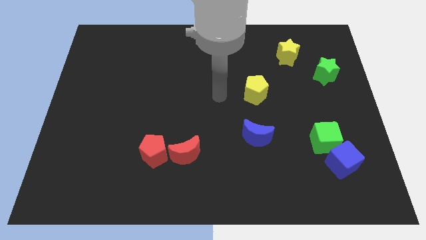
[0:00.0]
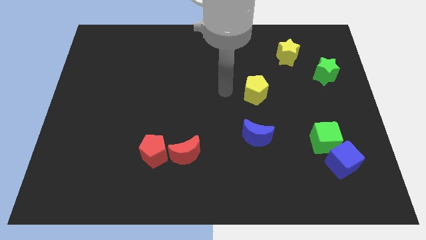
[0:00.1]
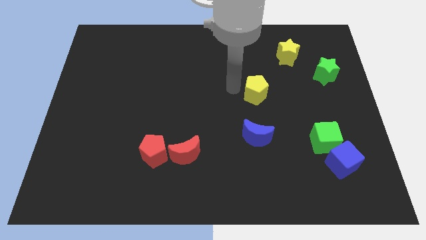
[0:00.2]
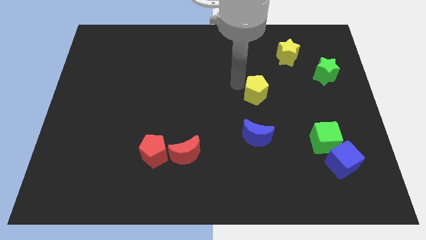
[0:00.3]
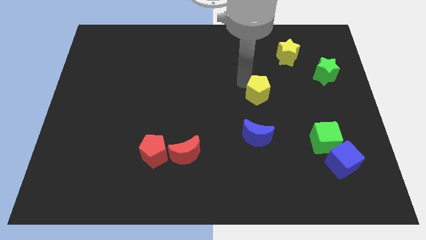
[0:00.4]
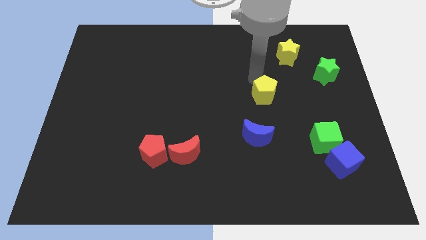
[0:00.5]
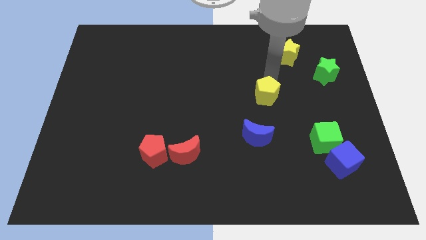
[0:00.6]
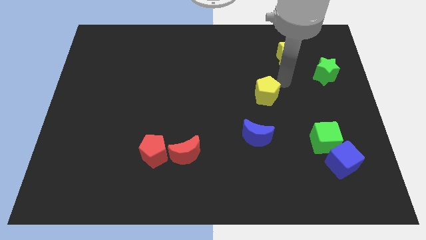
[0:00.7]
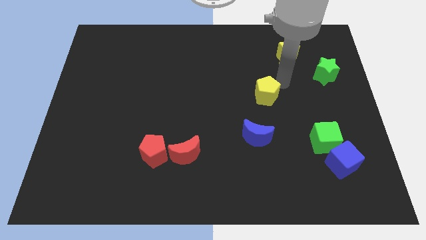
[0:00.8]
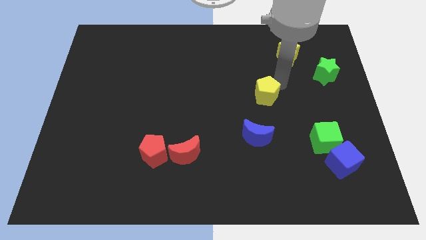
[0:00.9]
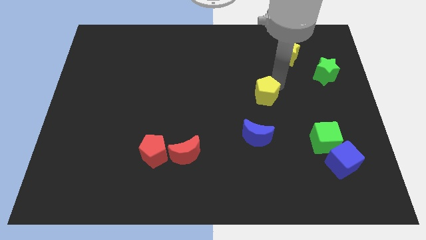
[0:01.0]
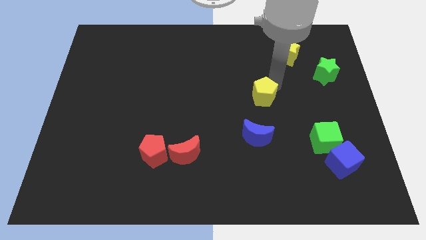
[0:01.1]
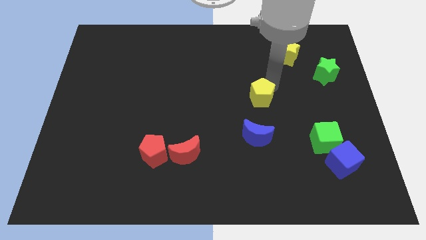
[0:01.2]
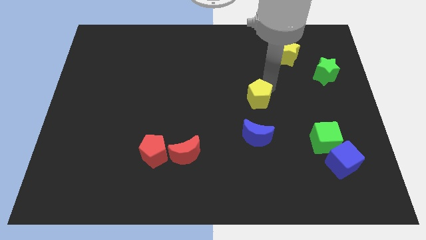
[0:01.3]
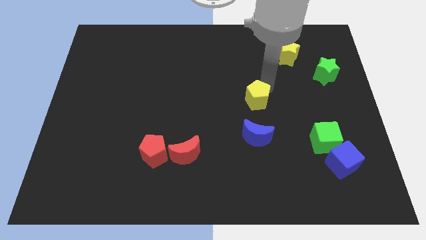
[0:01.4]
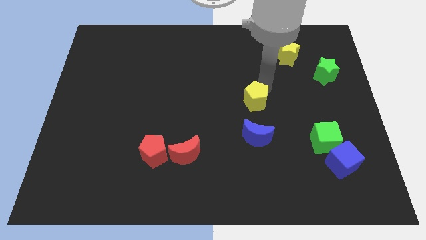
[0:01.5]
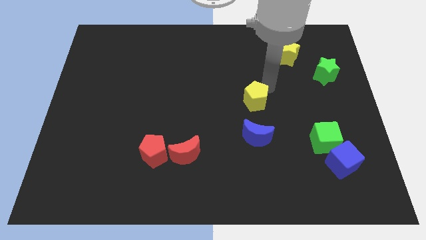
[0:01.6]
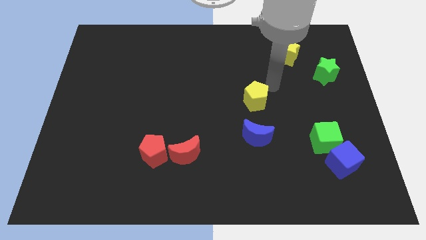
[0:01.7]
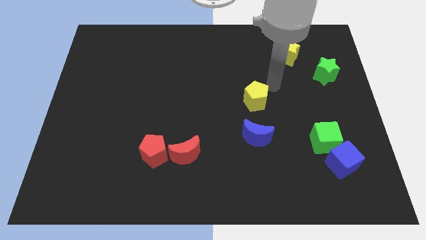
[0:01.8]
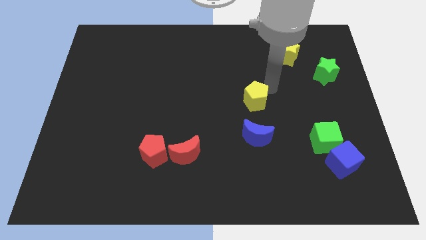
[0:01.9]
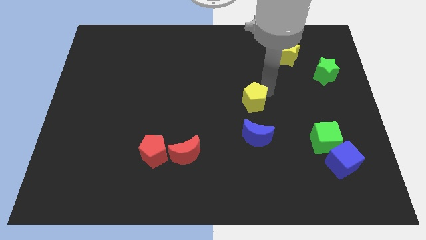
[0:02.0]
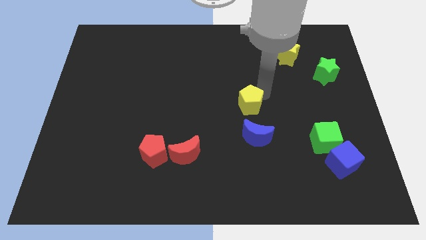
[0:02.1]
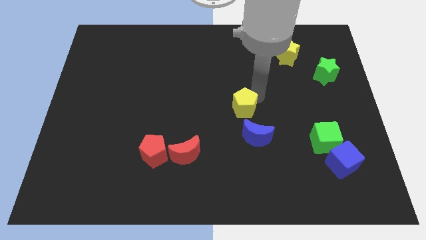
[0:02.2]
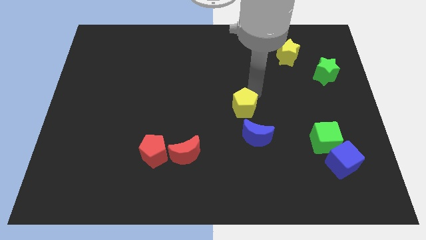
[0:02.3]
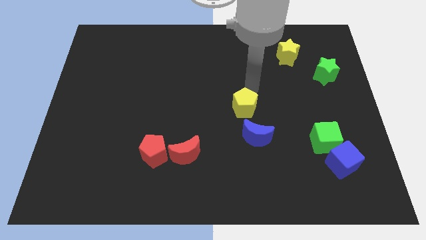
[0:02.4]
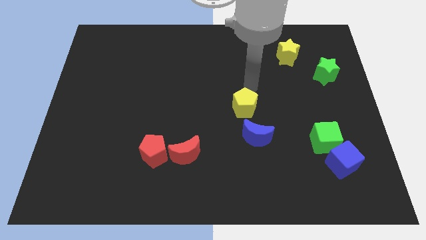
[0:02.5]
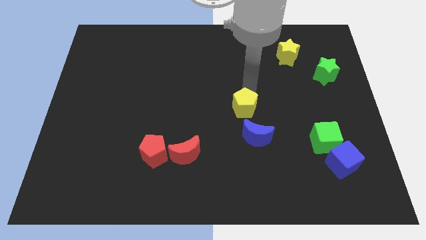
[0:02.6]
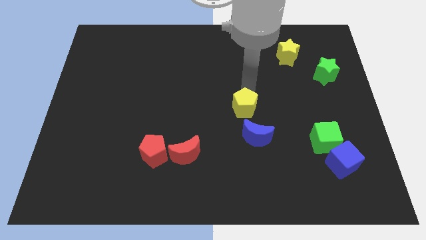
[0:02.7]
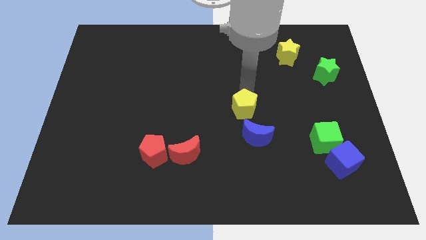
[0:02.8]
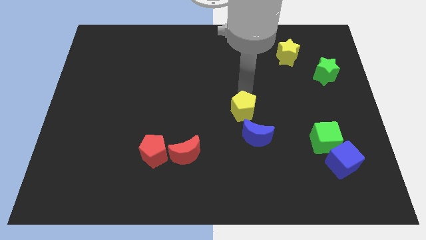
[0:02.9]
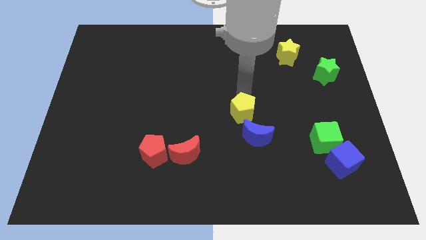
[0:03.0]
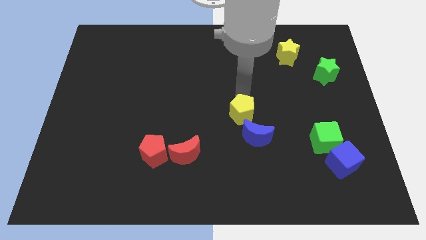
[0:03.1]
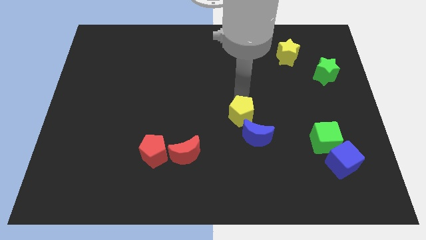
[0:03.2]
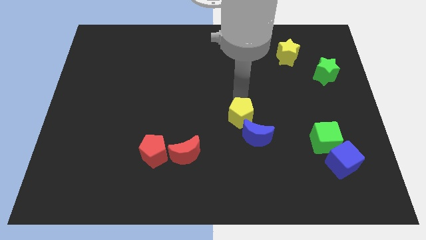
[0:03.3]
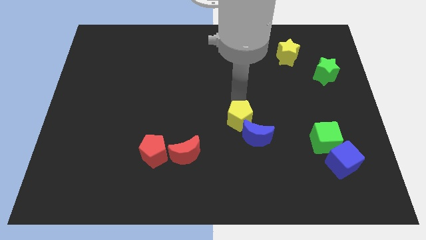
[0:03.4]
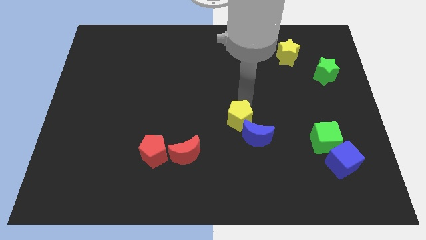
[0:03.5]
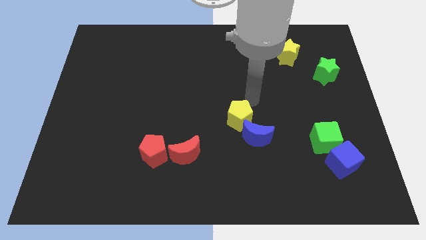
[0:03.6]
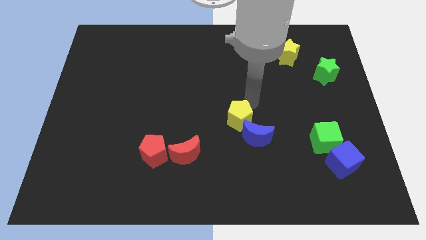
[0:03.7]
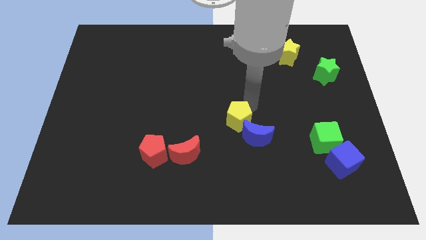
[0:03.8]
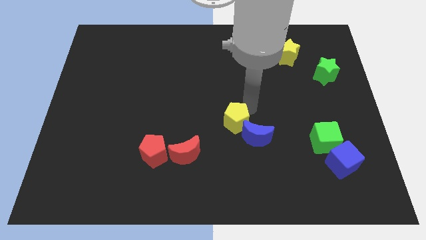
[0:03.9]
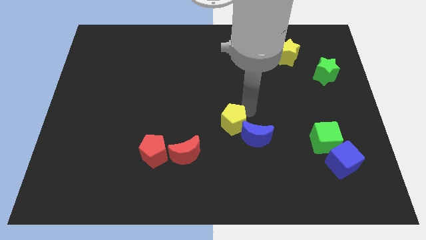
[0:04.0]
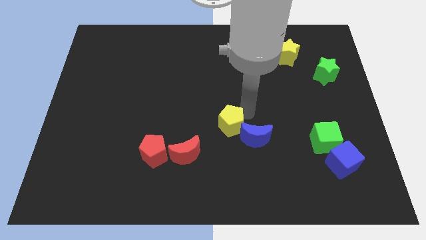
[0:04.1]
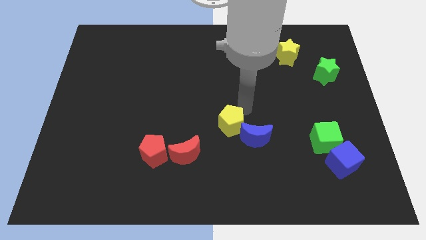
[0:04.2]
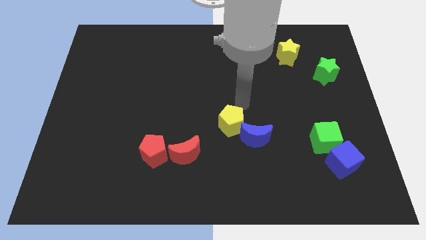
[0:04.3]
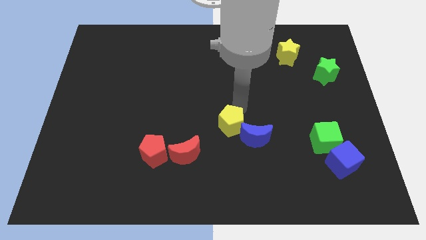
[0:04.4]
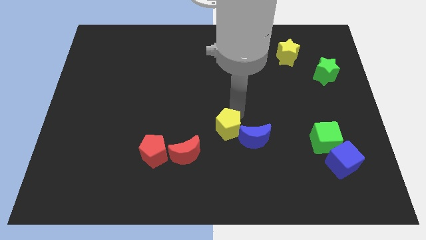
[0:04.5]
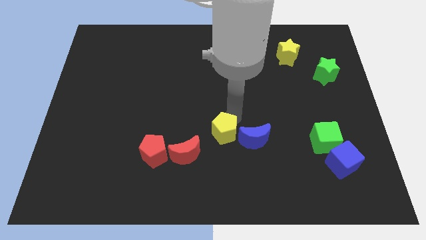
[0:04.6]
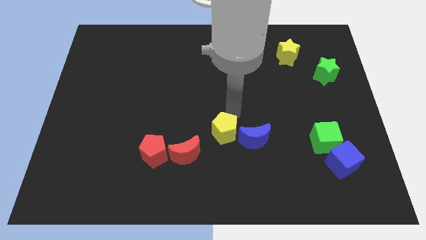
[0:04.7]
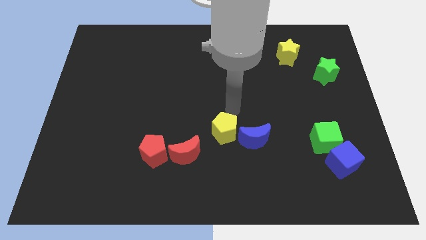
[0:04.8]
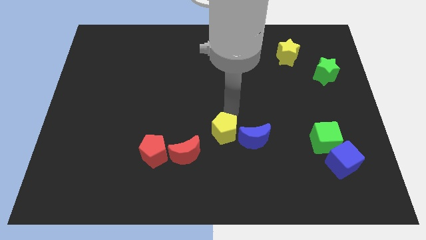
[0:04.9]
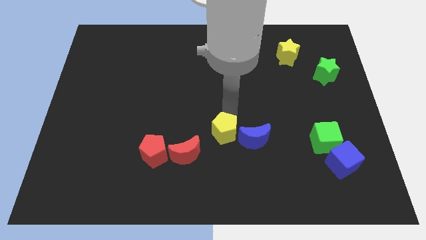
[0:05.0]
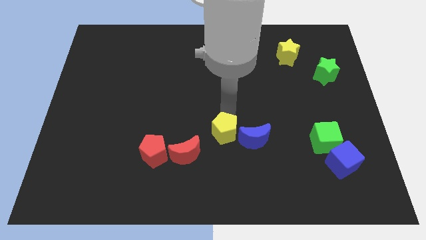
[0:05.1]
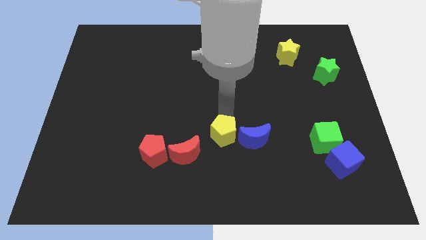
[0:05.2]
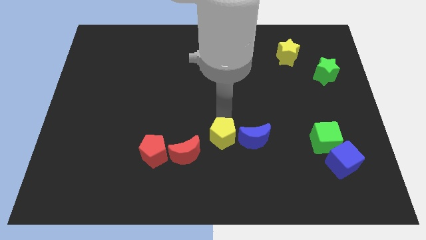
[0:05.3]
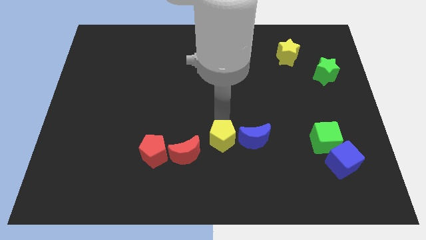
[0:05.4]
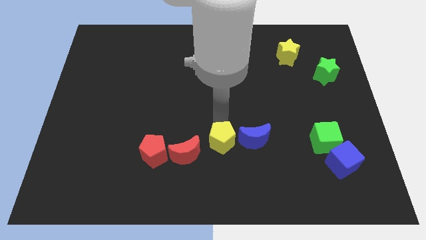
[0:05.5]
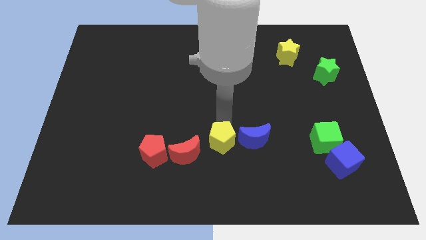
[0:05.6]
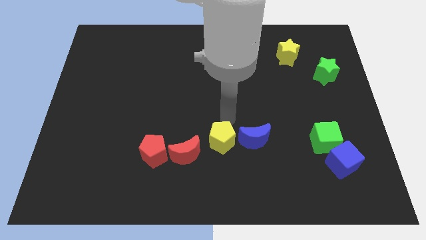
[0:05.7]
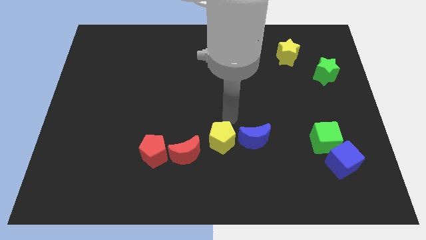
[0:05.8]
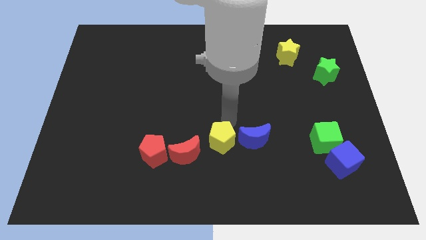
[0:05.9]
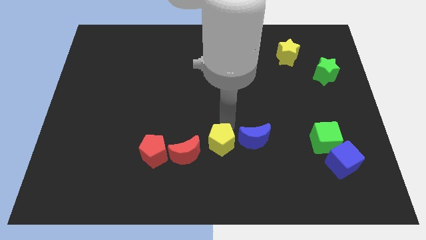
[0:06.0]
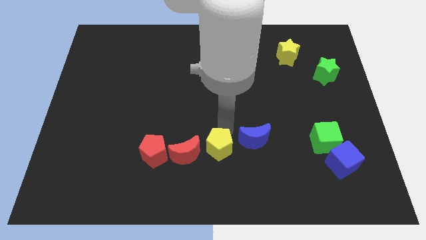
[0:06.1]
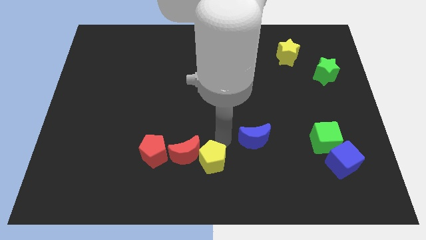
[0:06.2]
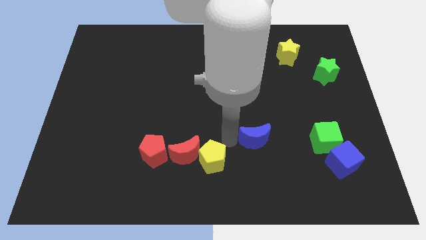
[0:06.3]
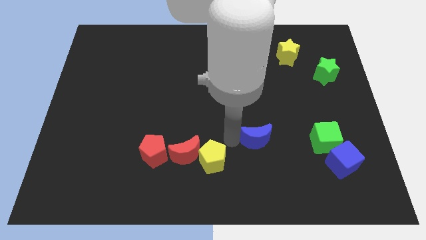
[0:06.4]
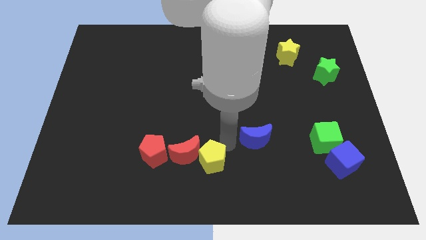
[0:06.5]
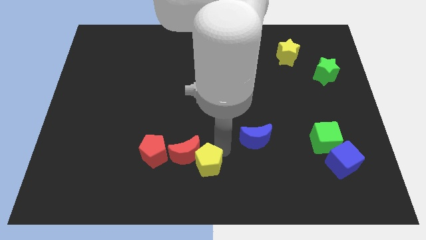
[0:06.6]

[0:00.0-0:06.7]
slide the yellow pentagon down and to the left diagonally

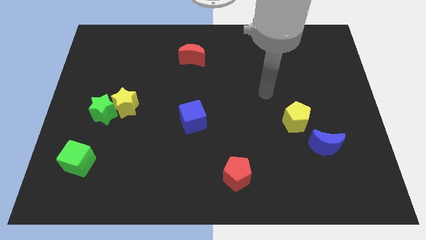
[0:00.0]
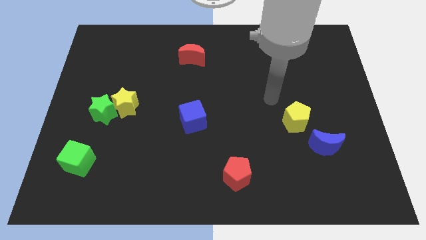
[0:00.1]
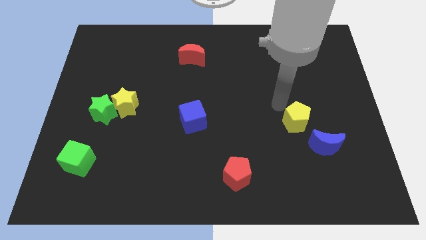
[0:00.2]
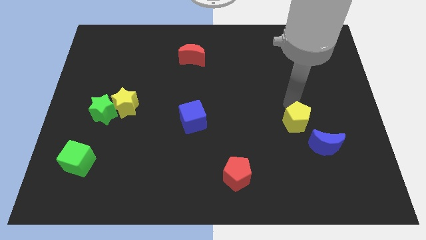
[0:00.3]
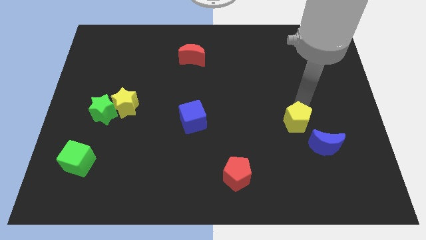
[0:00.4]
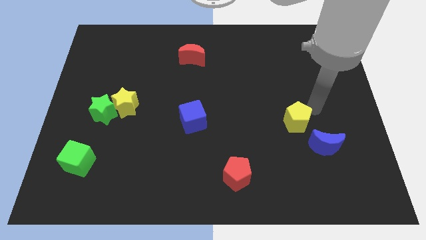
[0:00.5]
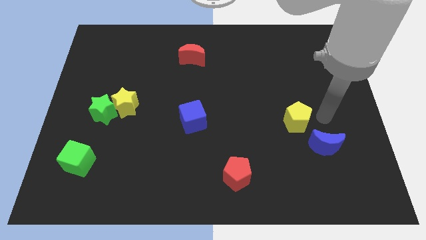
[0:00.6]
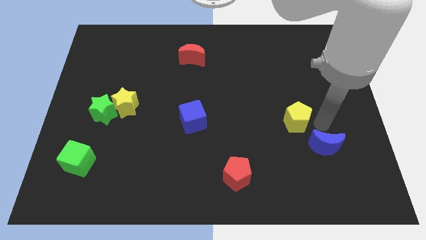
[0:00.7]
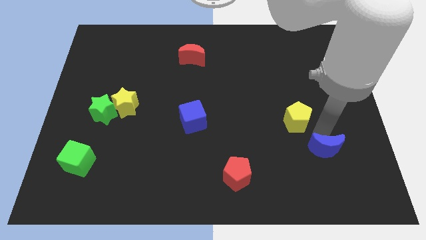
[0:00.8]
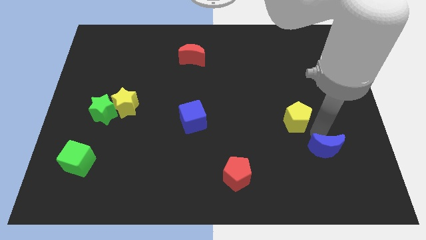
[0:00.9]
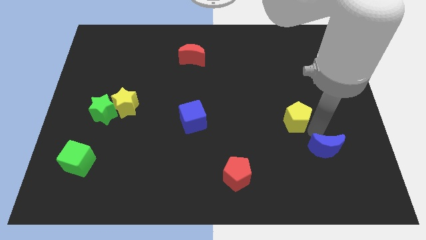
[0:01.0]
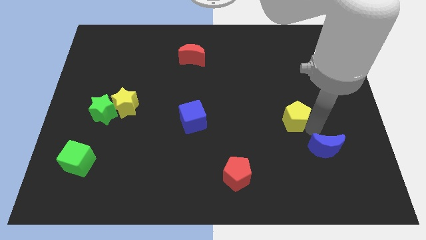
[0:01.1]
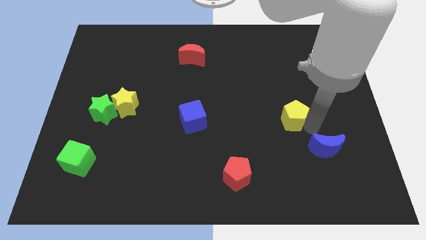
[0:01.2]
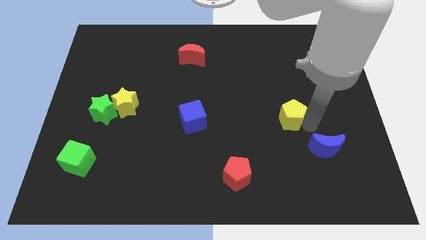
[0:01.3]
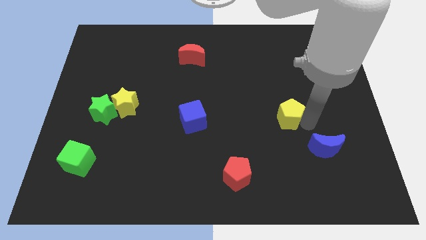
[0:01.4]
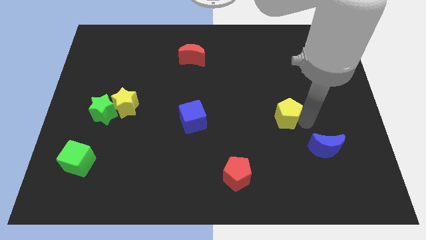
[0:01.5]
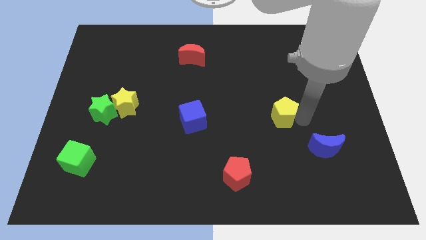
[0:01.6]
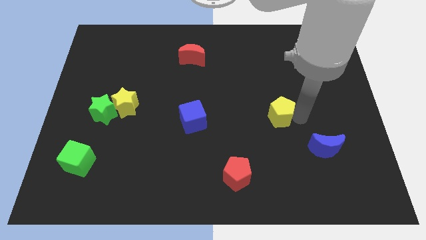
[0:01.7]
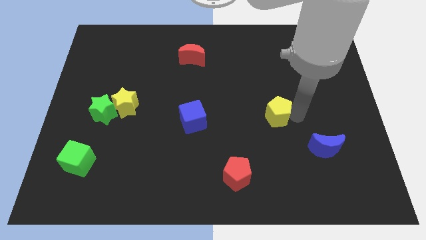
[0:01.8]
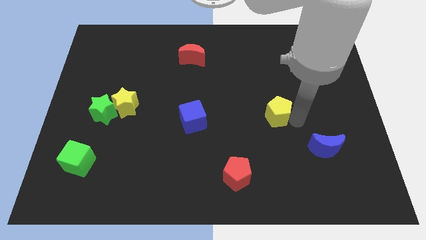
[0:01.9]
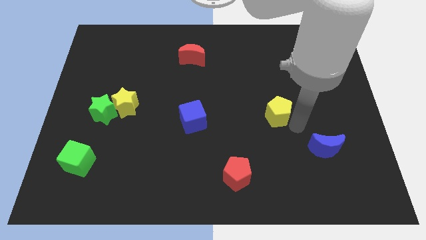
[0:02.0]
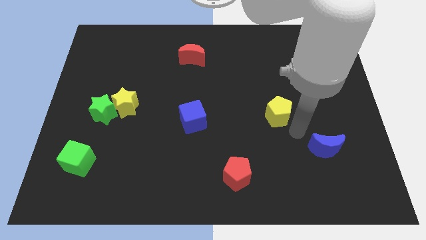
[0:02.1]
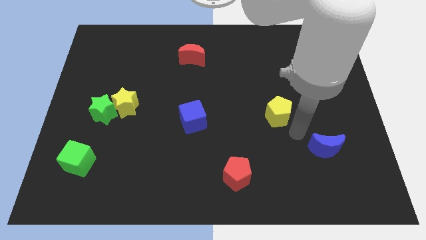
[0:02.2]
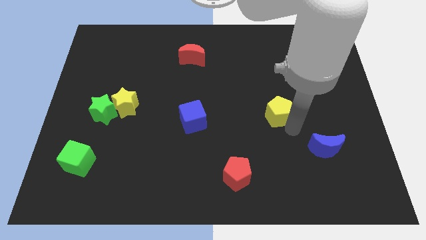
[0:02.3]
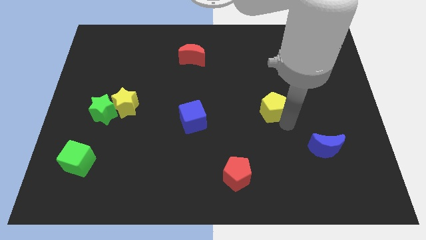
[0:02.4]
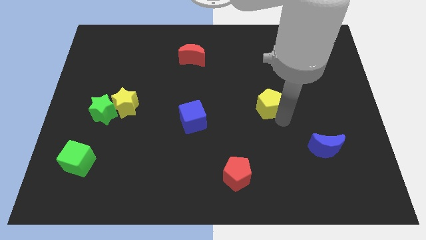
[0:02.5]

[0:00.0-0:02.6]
push the yellow pentagon slightly diagonally up and to the left
